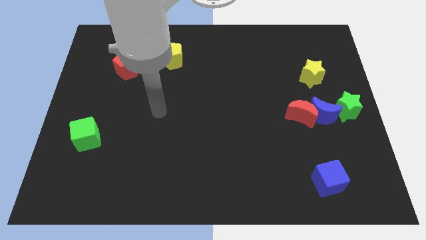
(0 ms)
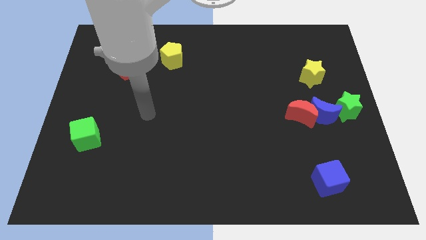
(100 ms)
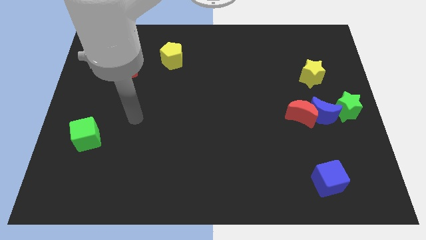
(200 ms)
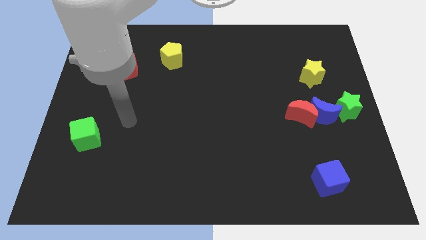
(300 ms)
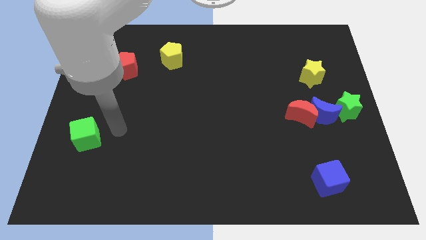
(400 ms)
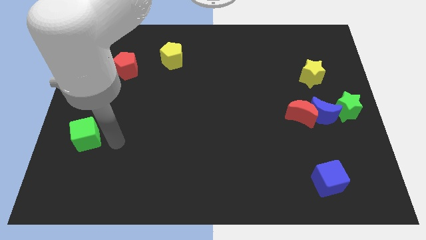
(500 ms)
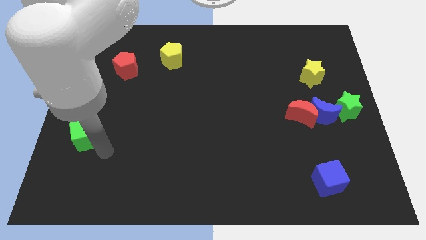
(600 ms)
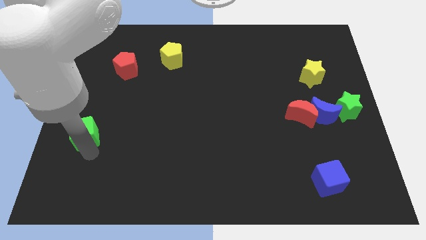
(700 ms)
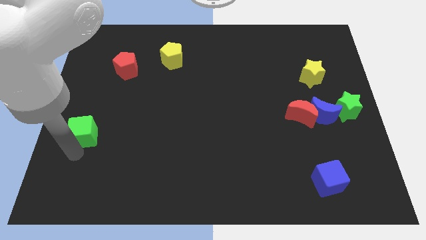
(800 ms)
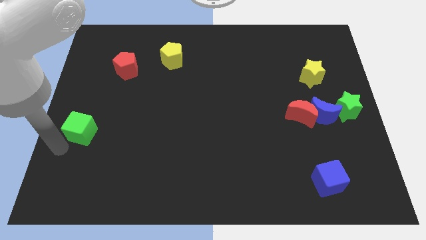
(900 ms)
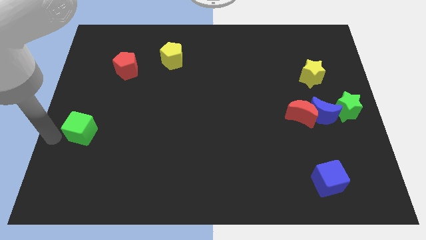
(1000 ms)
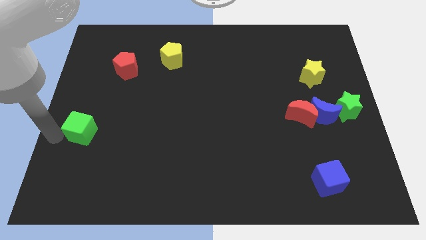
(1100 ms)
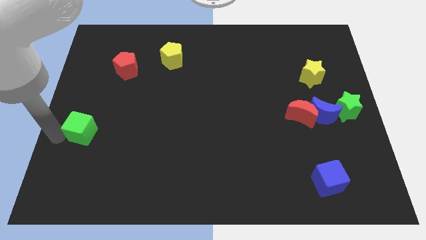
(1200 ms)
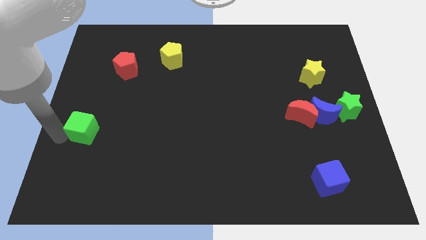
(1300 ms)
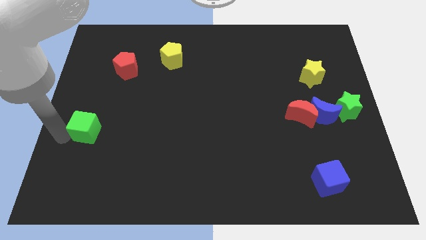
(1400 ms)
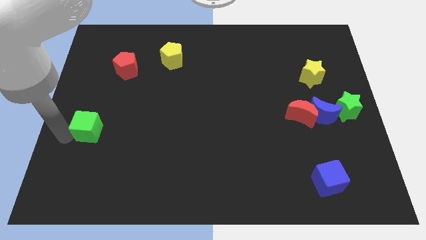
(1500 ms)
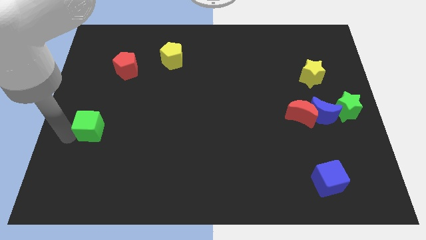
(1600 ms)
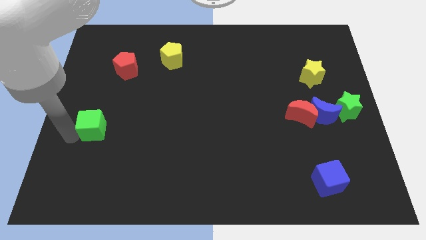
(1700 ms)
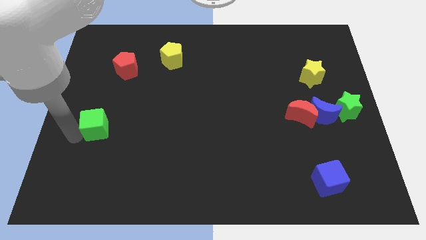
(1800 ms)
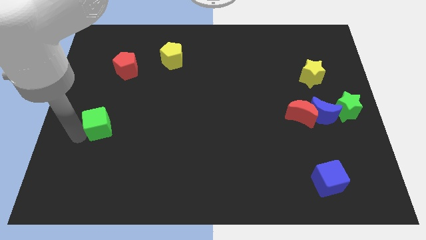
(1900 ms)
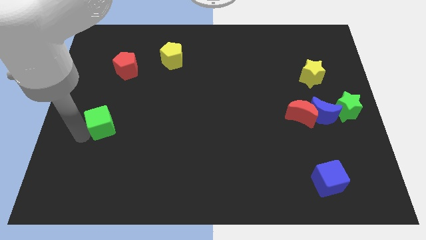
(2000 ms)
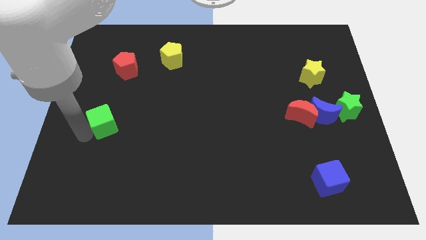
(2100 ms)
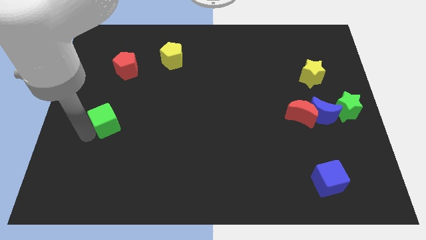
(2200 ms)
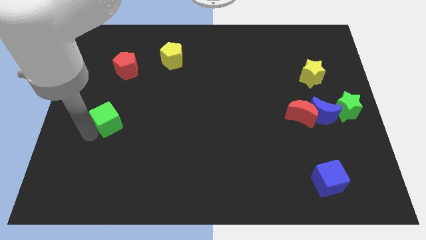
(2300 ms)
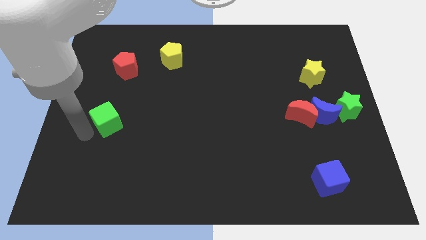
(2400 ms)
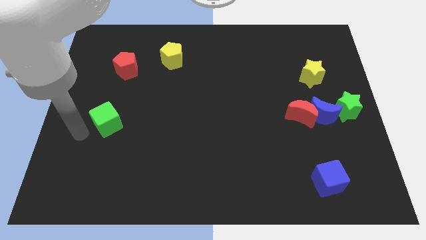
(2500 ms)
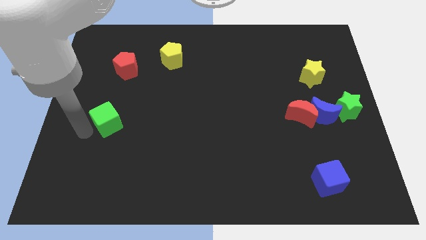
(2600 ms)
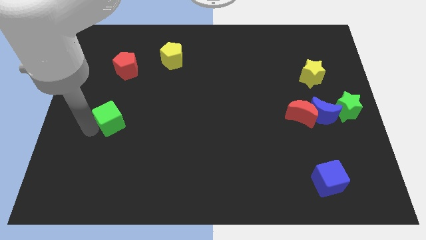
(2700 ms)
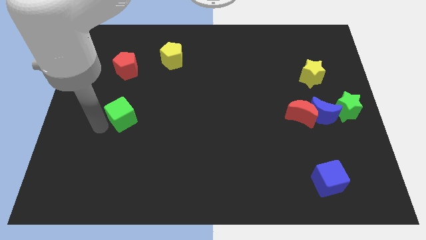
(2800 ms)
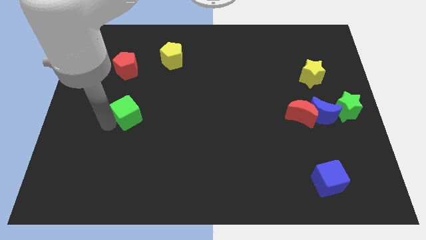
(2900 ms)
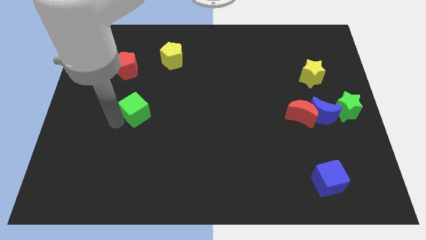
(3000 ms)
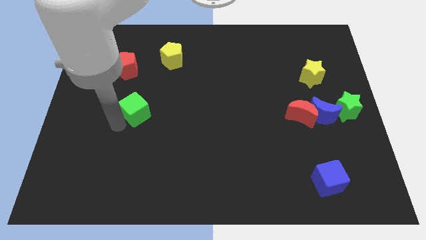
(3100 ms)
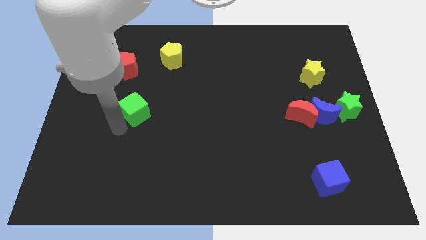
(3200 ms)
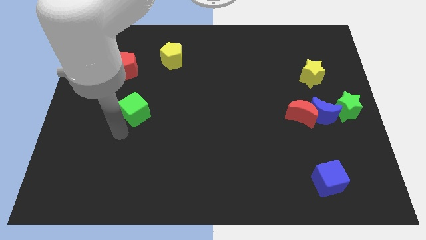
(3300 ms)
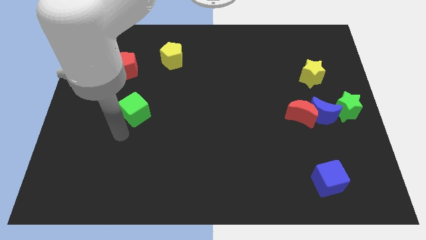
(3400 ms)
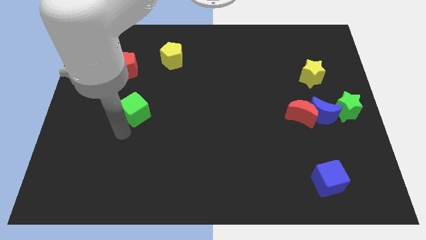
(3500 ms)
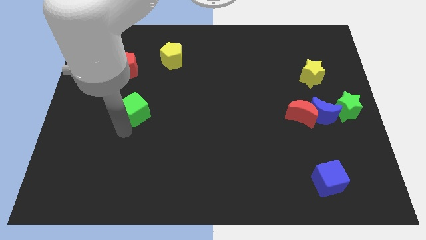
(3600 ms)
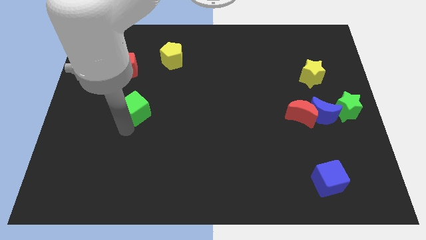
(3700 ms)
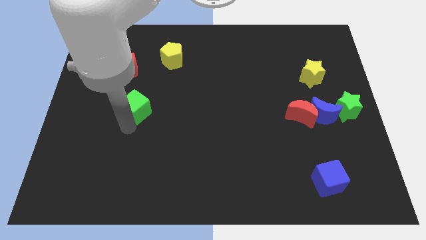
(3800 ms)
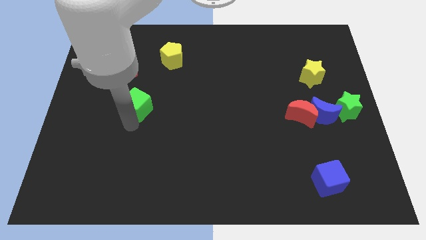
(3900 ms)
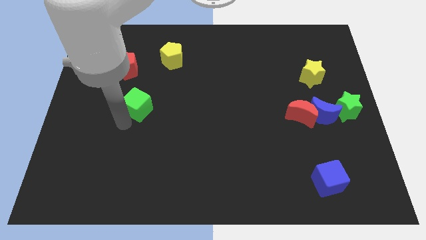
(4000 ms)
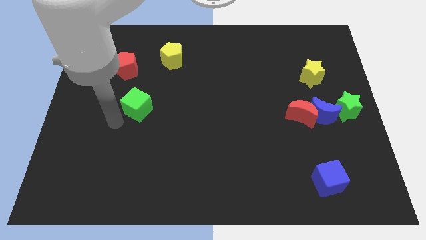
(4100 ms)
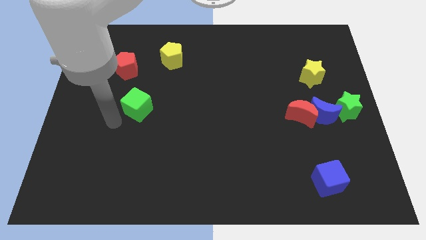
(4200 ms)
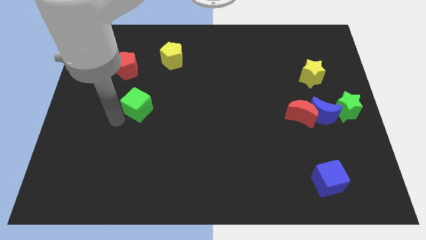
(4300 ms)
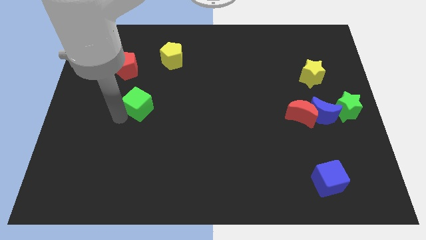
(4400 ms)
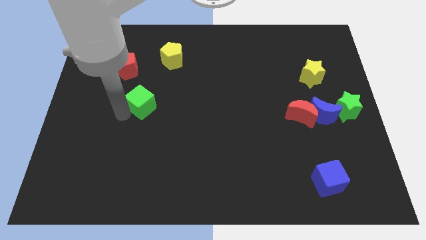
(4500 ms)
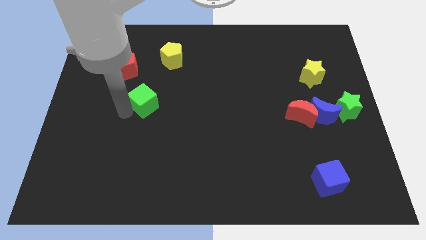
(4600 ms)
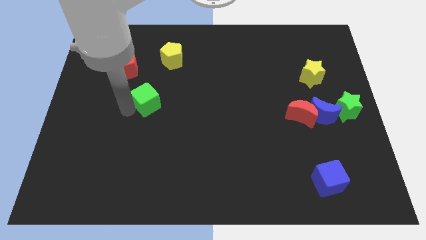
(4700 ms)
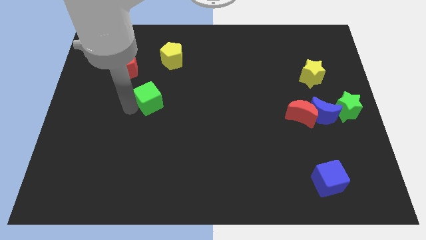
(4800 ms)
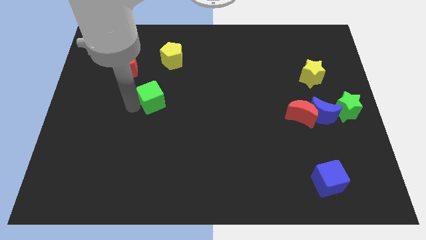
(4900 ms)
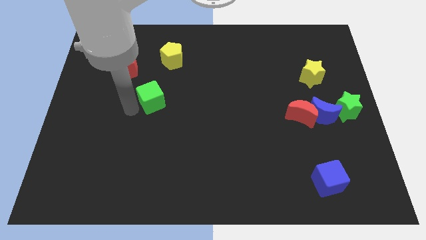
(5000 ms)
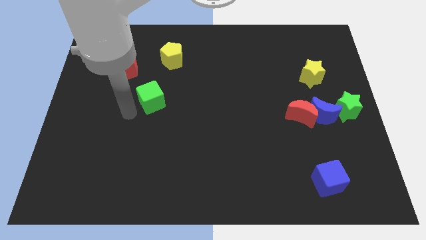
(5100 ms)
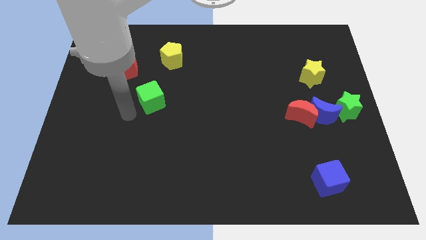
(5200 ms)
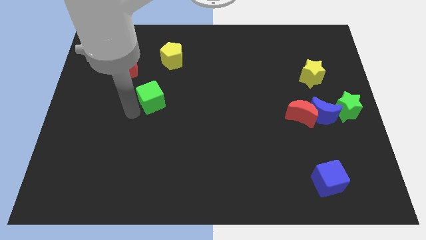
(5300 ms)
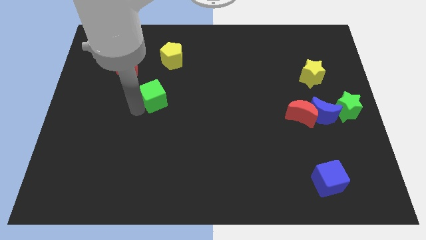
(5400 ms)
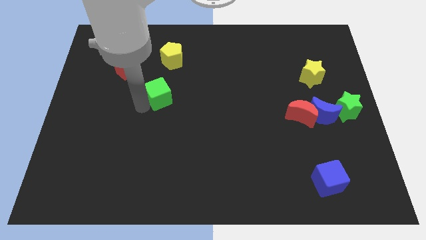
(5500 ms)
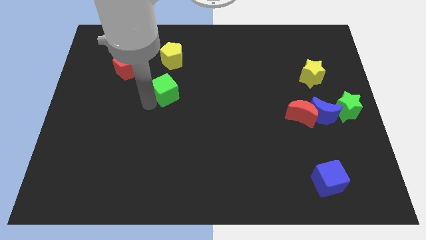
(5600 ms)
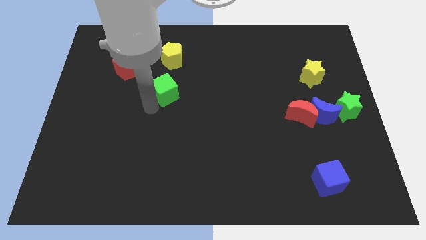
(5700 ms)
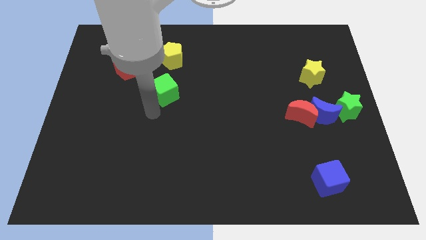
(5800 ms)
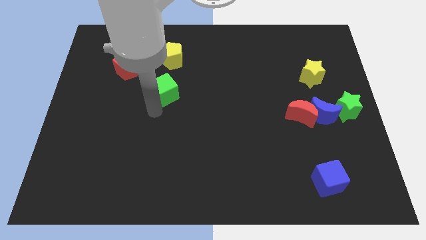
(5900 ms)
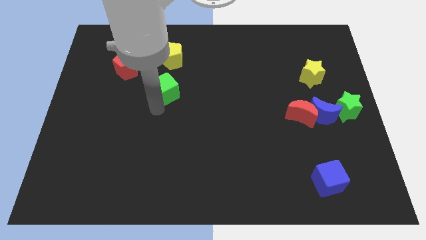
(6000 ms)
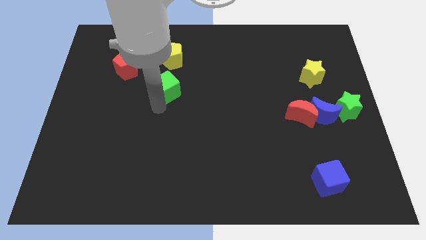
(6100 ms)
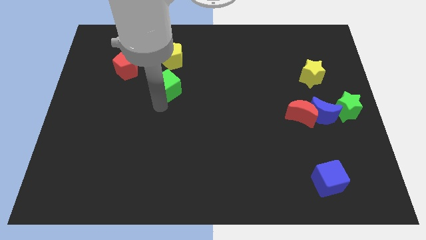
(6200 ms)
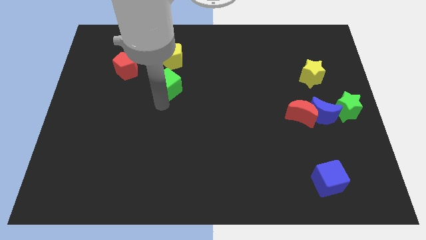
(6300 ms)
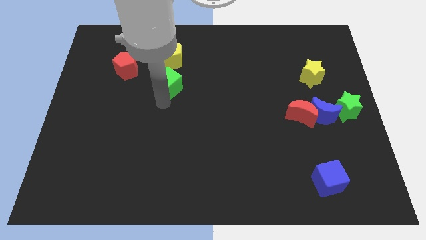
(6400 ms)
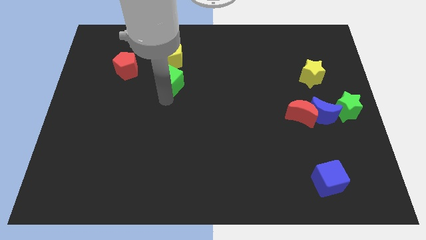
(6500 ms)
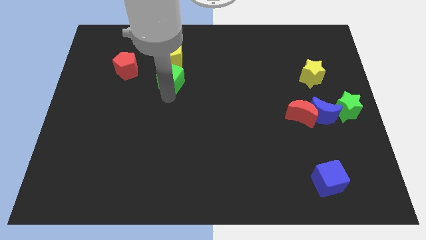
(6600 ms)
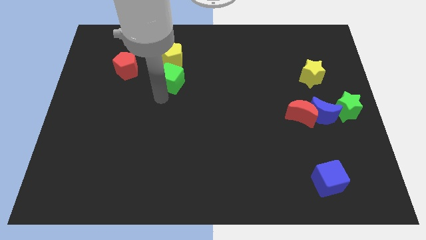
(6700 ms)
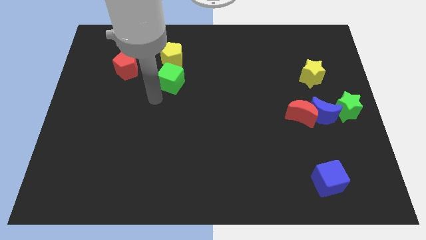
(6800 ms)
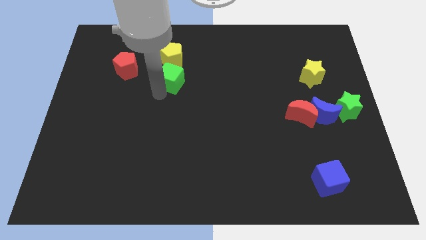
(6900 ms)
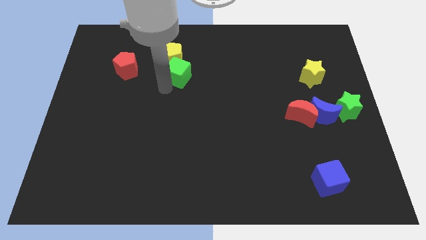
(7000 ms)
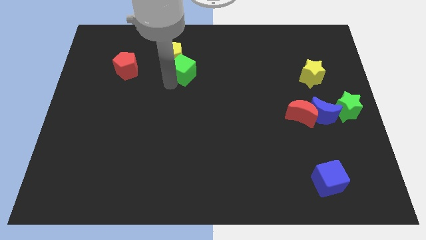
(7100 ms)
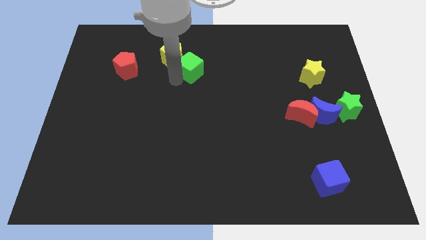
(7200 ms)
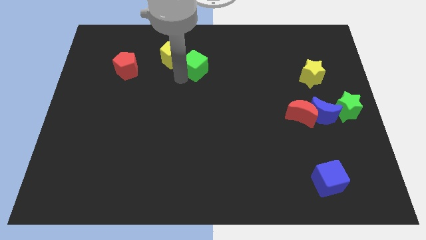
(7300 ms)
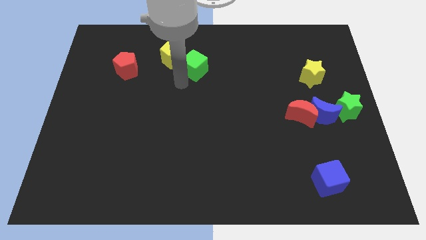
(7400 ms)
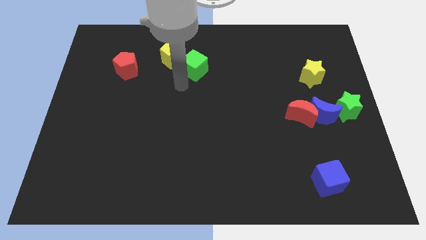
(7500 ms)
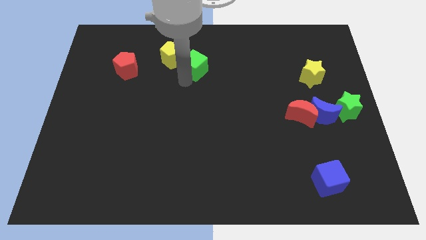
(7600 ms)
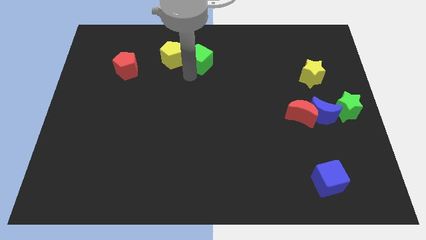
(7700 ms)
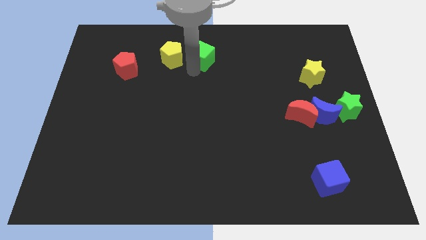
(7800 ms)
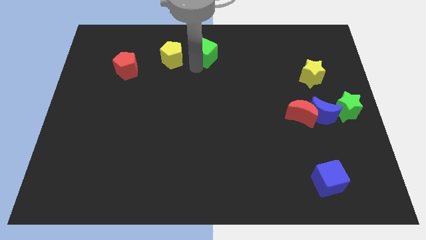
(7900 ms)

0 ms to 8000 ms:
move the green cube to the top side
